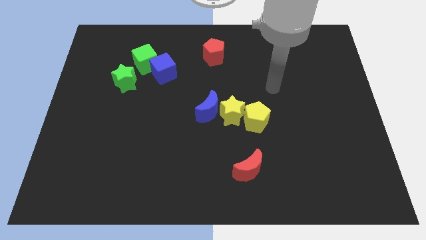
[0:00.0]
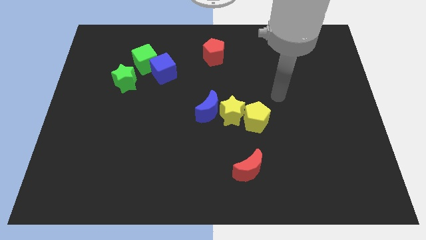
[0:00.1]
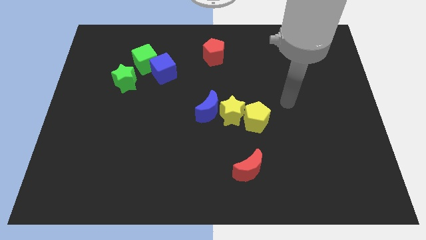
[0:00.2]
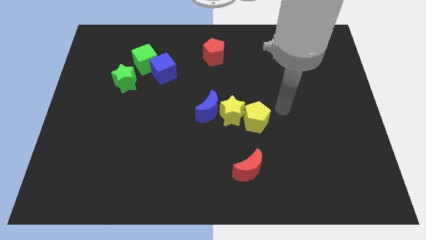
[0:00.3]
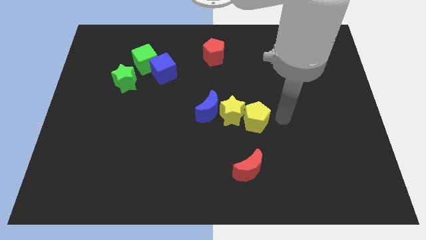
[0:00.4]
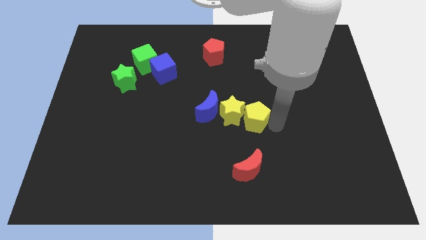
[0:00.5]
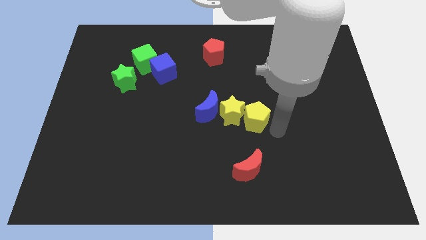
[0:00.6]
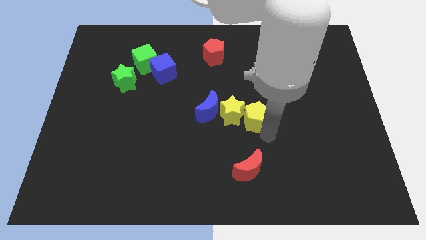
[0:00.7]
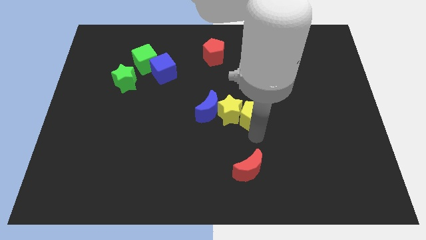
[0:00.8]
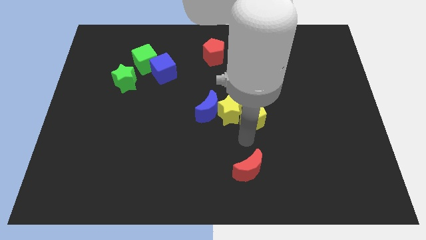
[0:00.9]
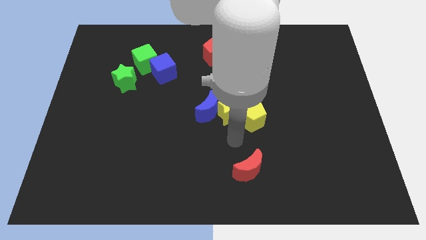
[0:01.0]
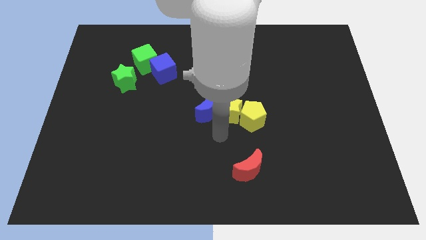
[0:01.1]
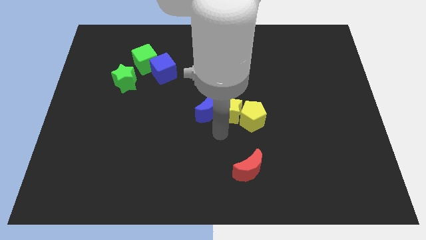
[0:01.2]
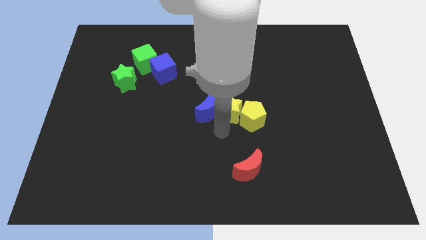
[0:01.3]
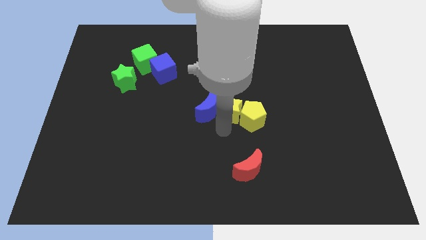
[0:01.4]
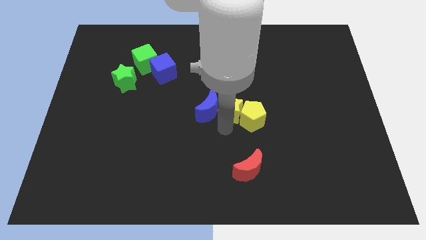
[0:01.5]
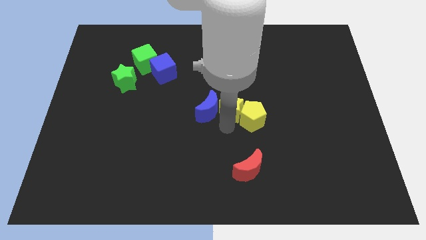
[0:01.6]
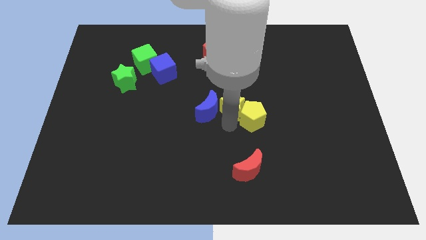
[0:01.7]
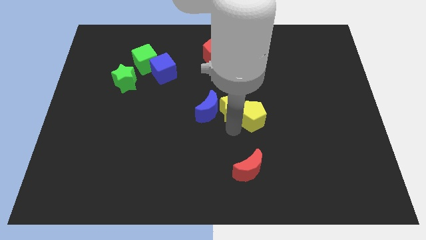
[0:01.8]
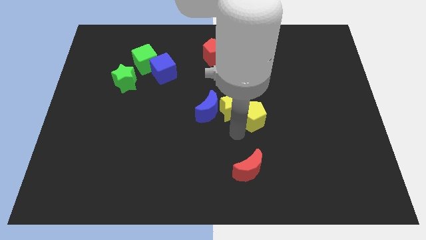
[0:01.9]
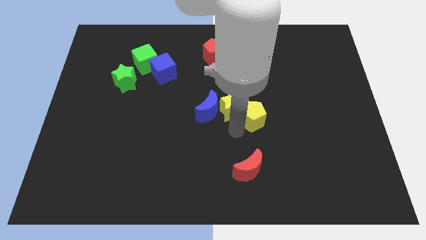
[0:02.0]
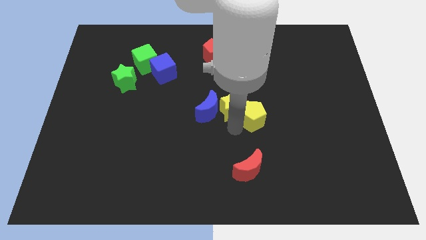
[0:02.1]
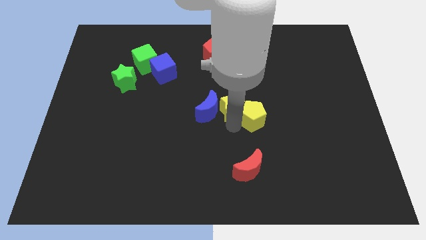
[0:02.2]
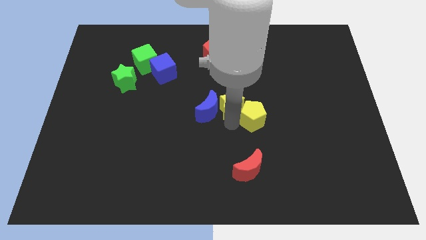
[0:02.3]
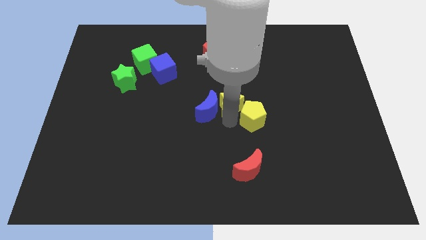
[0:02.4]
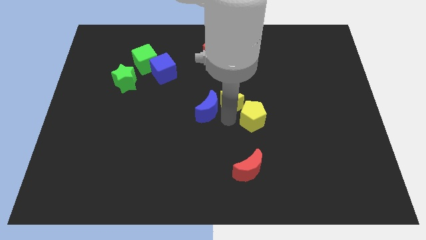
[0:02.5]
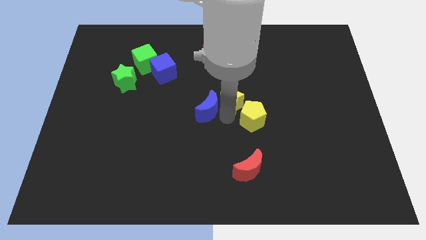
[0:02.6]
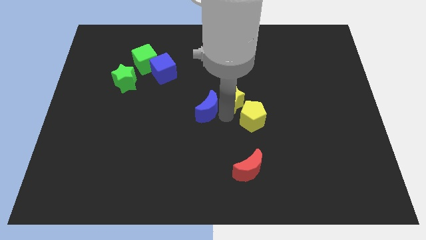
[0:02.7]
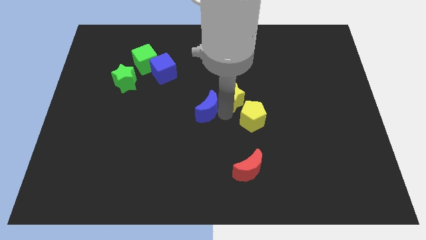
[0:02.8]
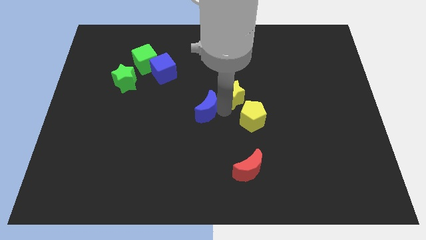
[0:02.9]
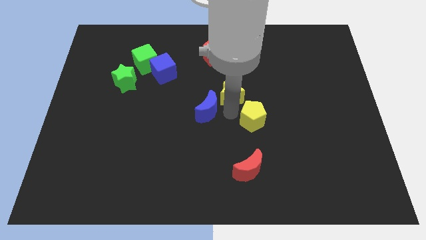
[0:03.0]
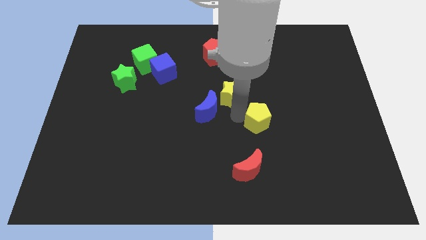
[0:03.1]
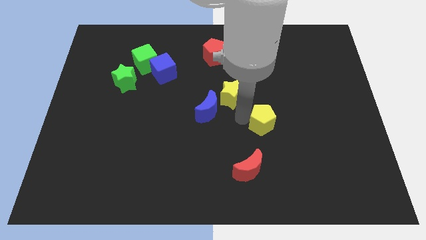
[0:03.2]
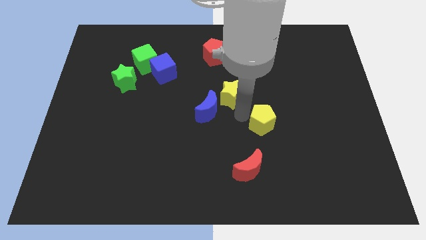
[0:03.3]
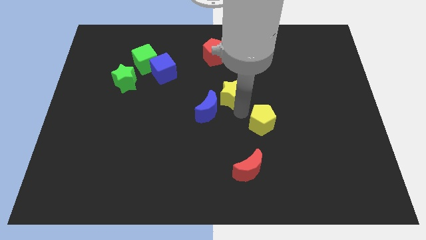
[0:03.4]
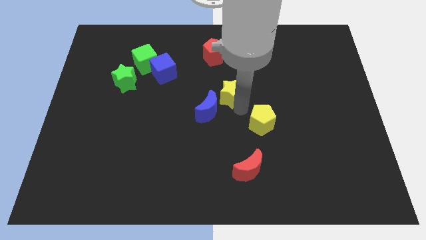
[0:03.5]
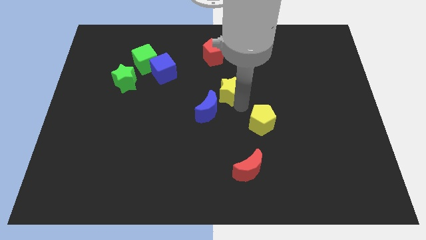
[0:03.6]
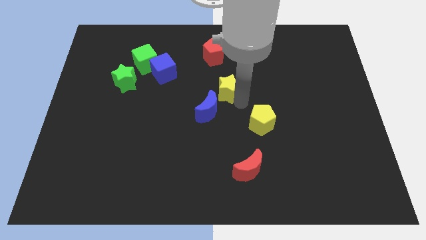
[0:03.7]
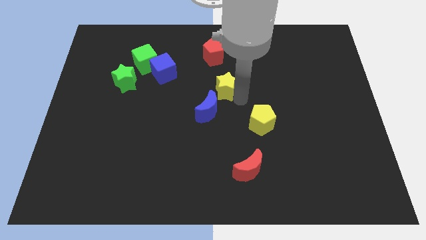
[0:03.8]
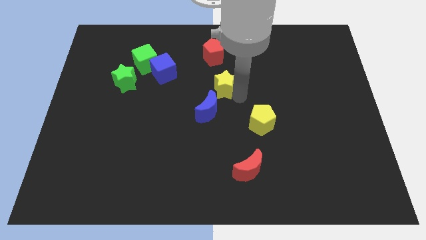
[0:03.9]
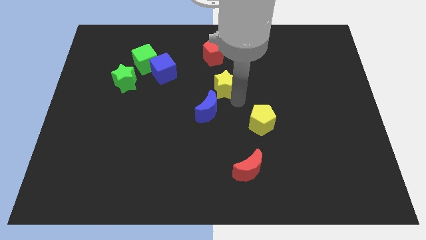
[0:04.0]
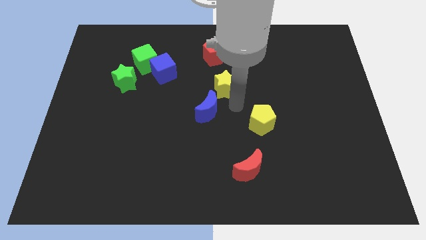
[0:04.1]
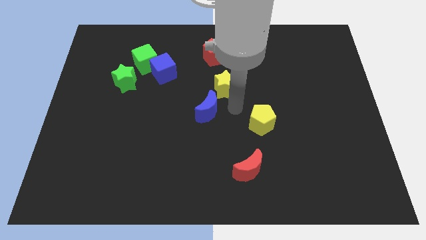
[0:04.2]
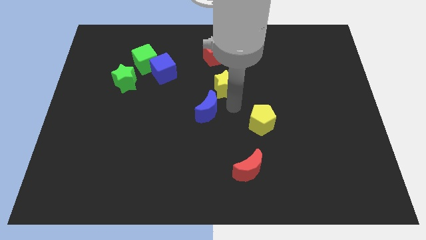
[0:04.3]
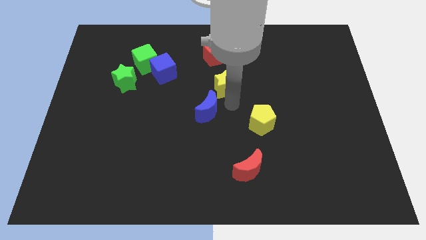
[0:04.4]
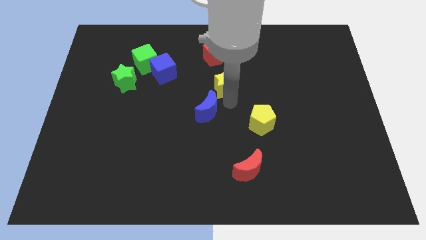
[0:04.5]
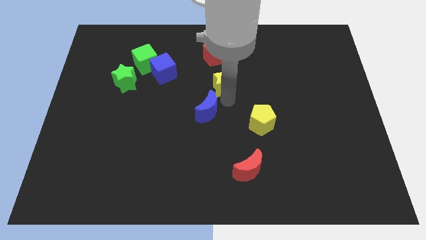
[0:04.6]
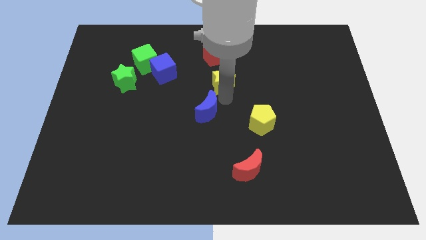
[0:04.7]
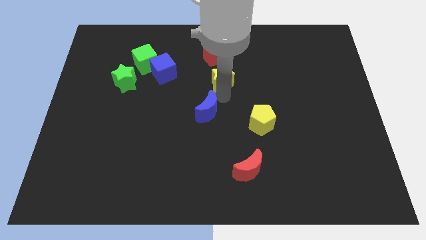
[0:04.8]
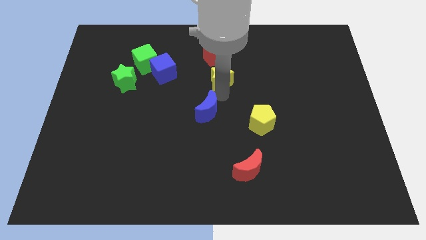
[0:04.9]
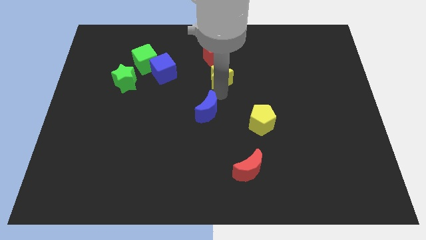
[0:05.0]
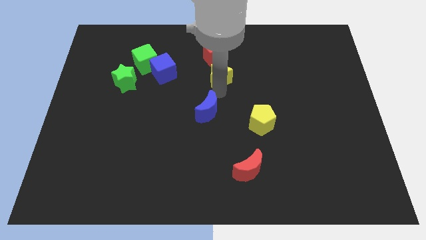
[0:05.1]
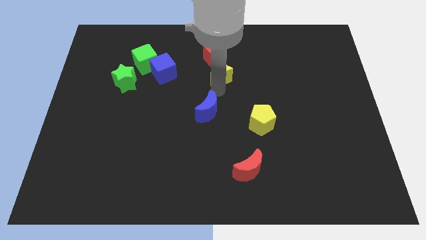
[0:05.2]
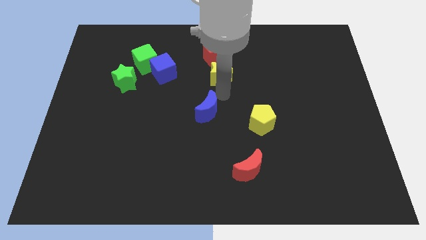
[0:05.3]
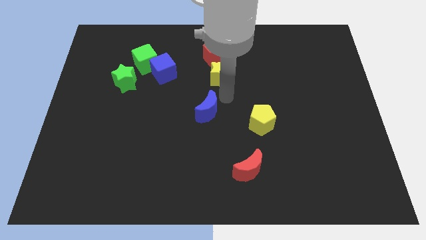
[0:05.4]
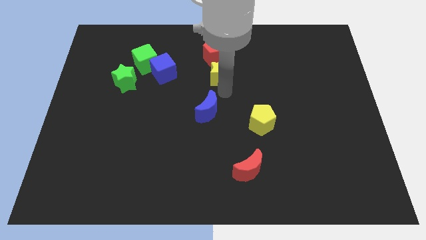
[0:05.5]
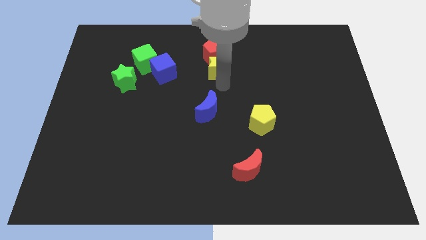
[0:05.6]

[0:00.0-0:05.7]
push the yellow star to the red pentagon

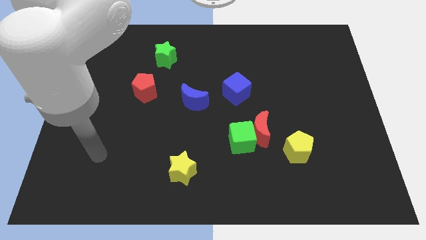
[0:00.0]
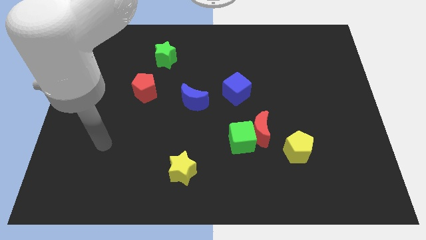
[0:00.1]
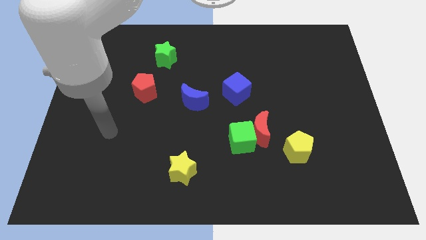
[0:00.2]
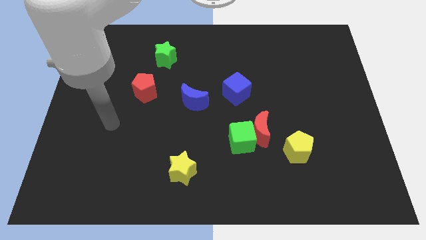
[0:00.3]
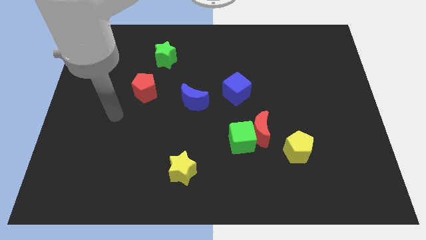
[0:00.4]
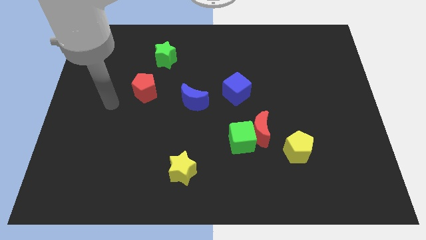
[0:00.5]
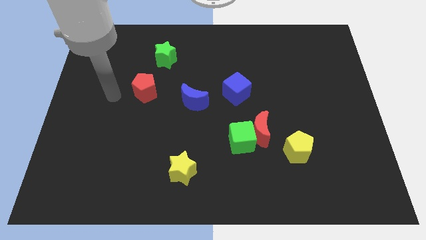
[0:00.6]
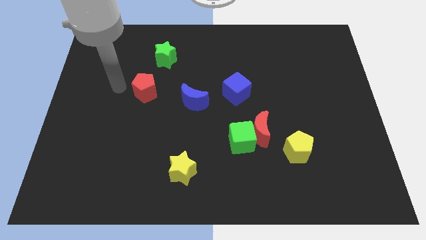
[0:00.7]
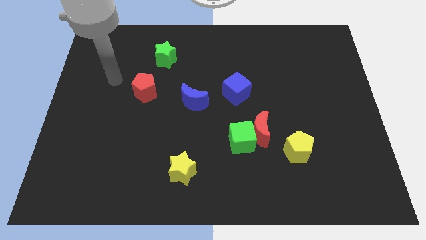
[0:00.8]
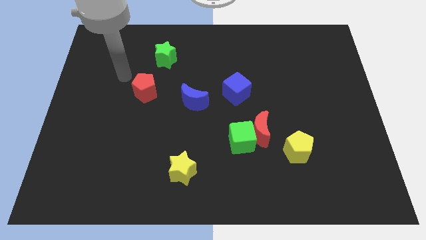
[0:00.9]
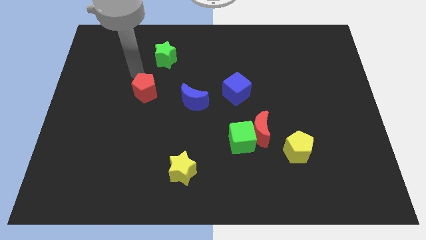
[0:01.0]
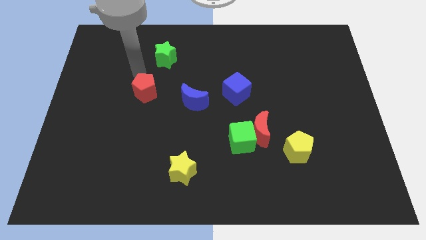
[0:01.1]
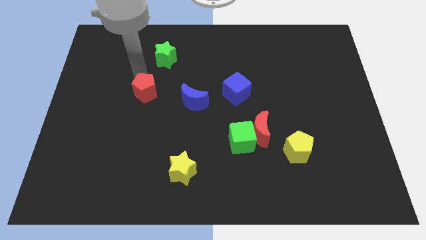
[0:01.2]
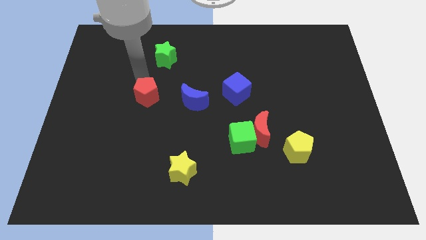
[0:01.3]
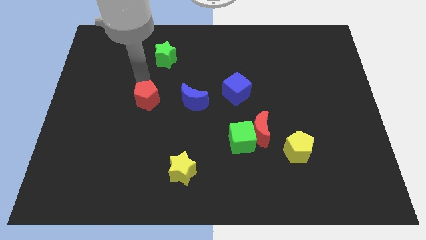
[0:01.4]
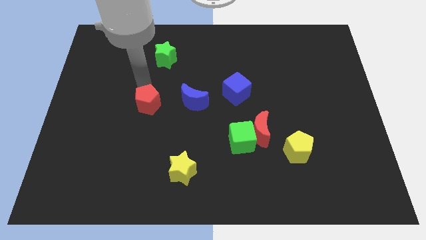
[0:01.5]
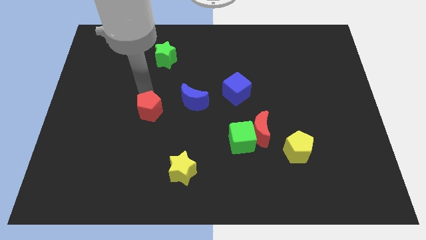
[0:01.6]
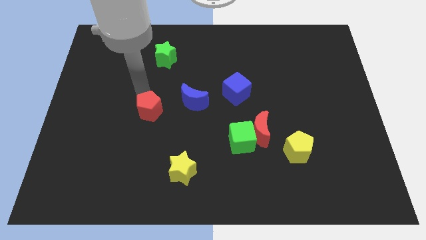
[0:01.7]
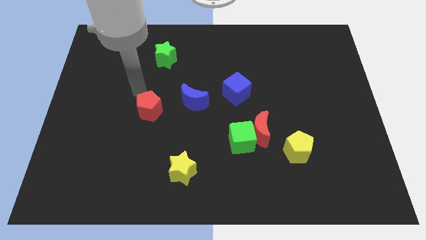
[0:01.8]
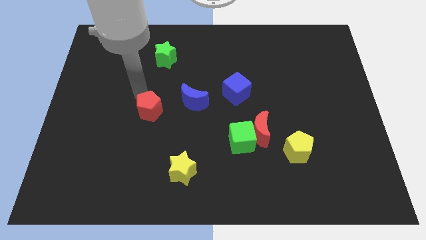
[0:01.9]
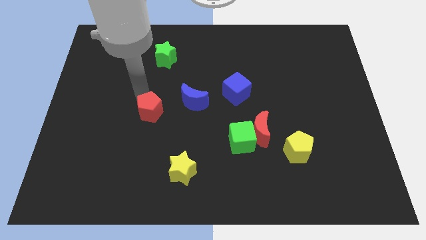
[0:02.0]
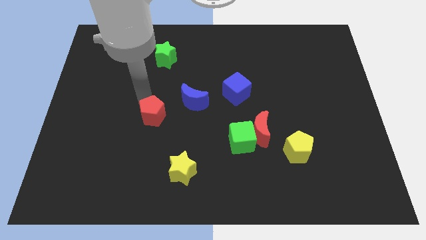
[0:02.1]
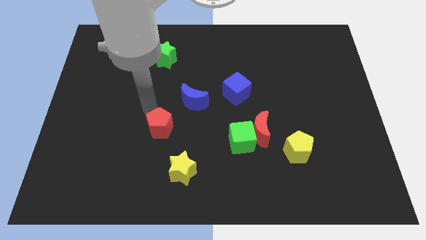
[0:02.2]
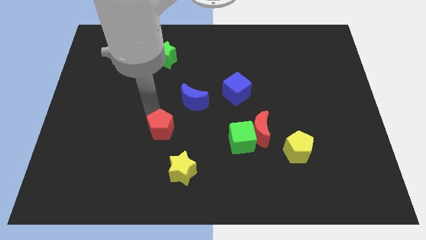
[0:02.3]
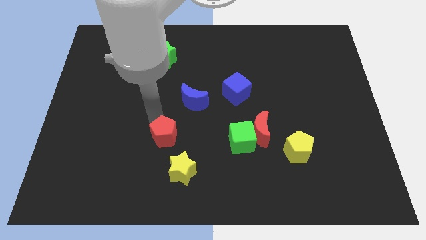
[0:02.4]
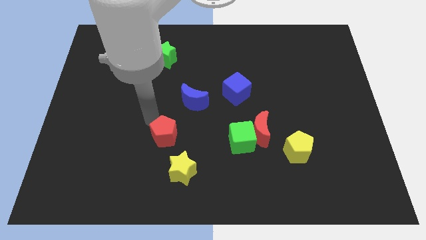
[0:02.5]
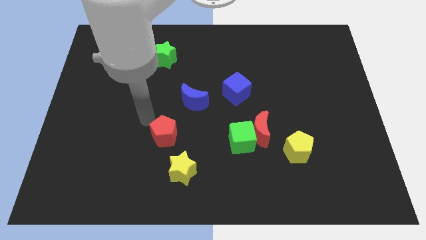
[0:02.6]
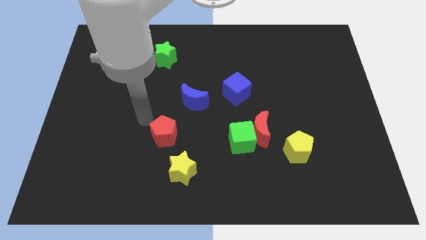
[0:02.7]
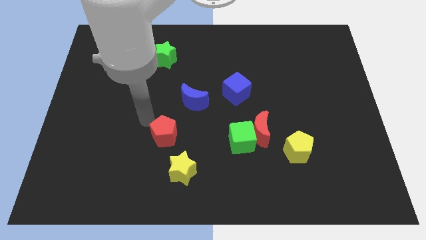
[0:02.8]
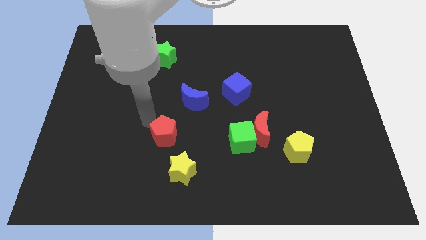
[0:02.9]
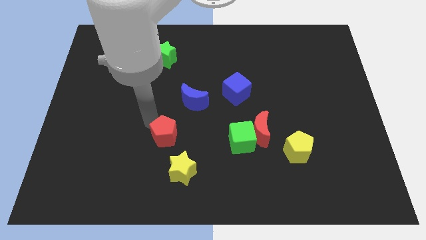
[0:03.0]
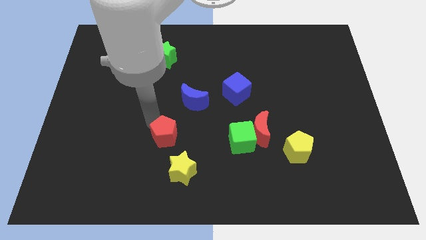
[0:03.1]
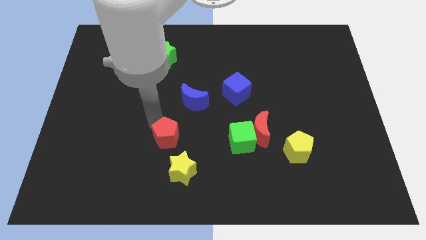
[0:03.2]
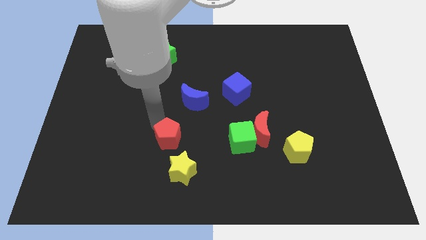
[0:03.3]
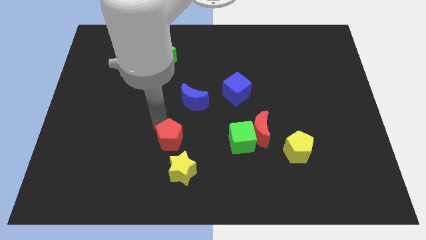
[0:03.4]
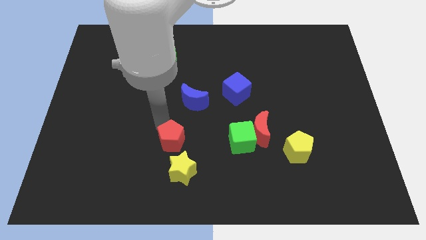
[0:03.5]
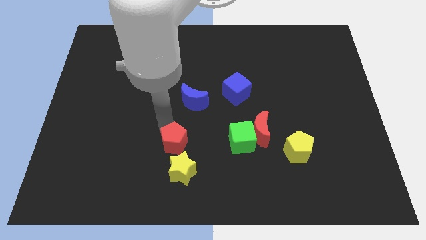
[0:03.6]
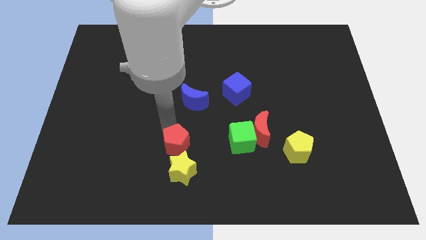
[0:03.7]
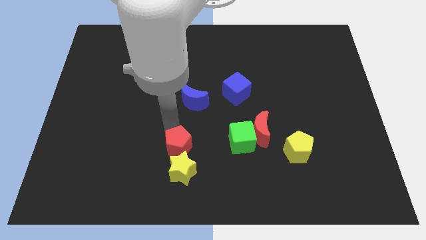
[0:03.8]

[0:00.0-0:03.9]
put the red pentagon next to the yellow star
